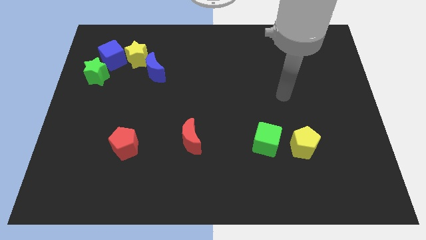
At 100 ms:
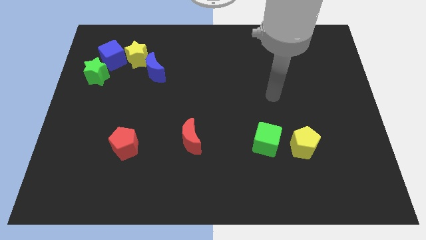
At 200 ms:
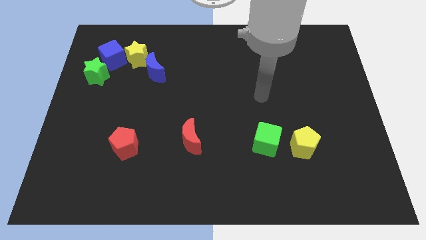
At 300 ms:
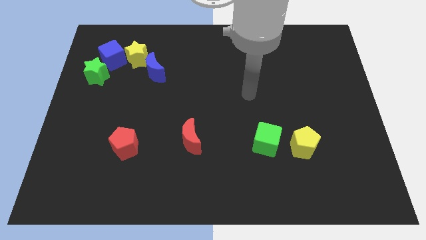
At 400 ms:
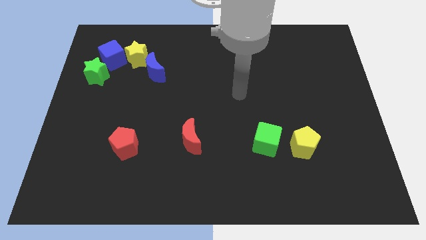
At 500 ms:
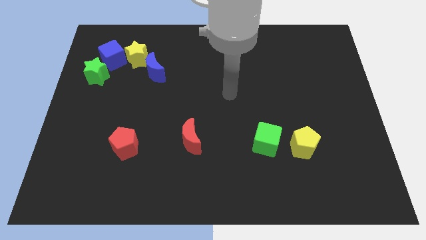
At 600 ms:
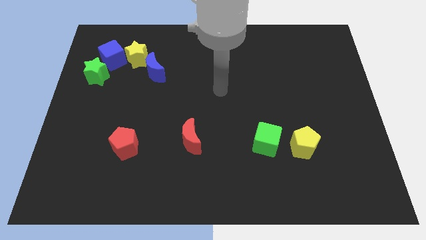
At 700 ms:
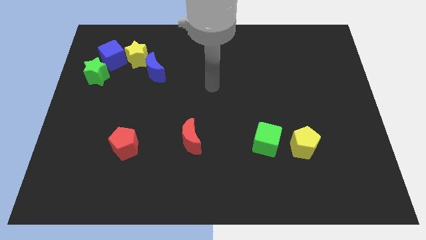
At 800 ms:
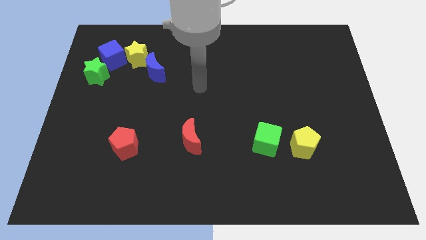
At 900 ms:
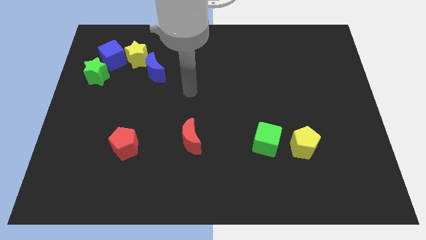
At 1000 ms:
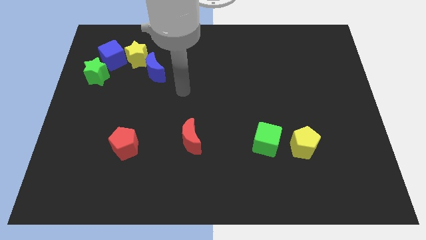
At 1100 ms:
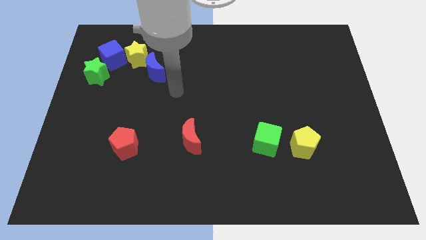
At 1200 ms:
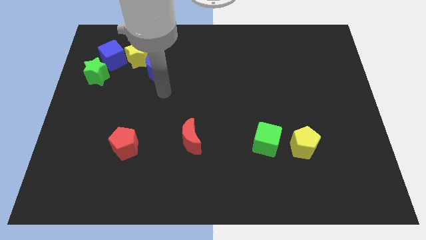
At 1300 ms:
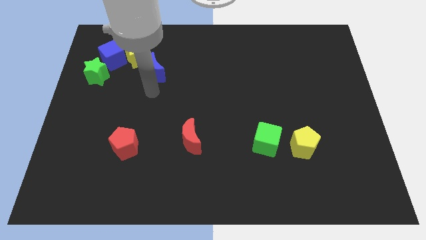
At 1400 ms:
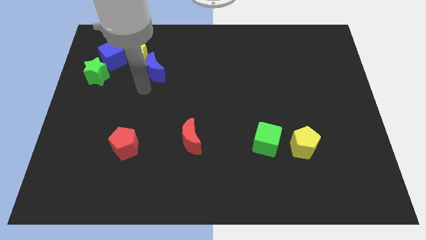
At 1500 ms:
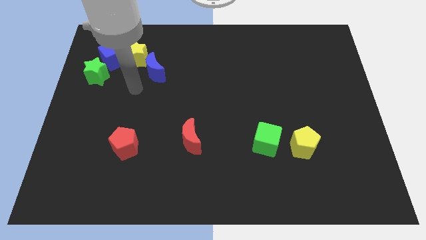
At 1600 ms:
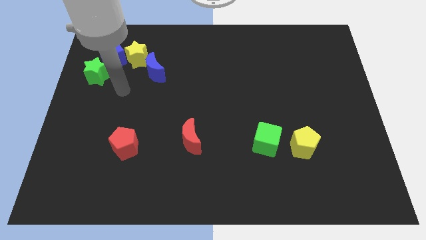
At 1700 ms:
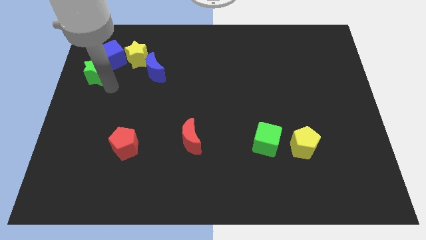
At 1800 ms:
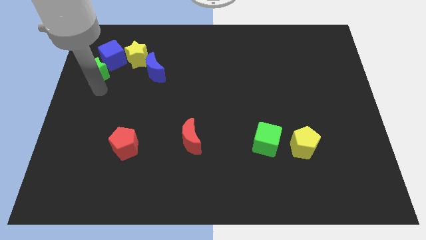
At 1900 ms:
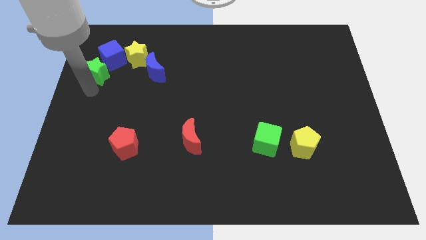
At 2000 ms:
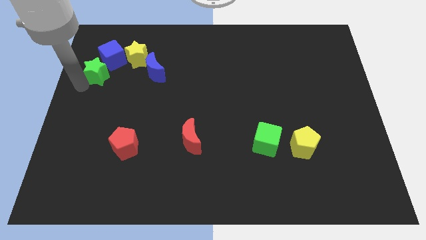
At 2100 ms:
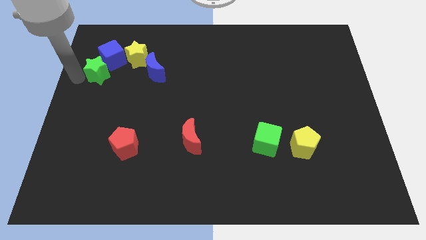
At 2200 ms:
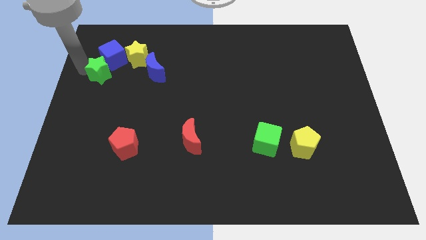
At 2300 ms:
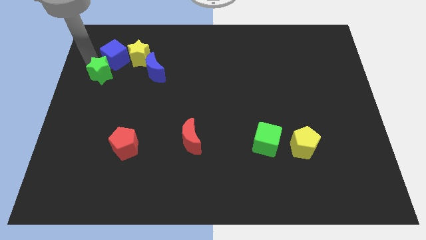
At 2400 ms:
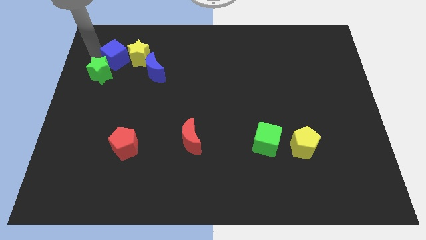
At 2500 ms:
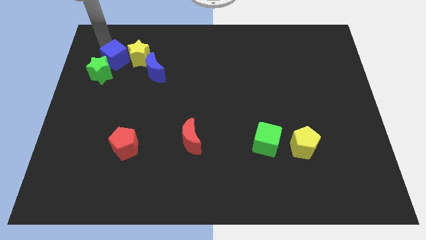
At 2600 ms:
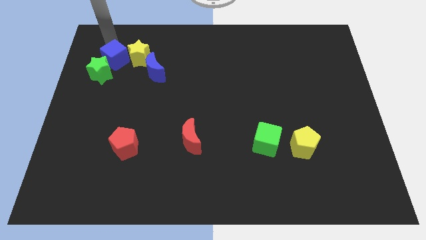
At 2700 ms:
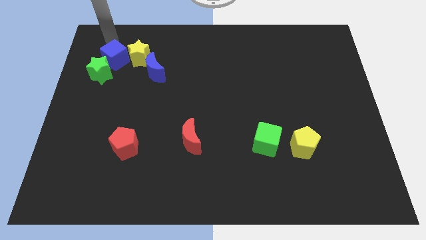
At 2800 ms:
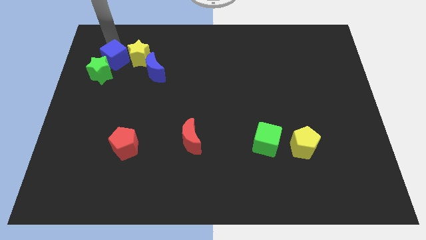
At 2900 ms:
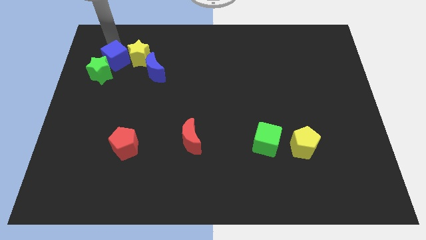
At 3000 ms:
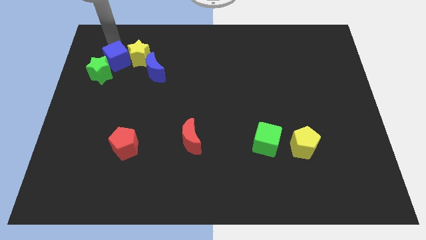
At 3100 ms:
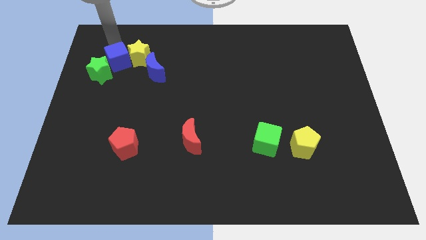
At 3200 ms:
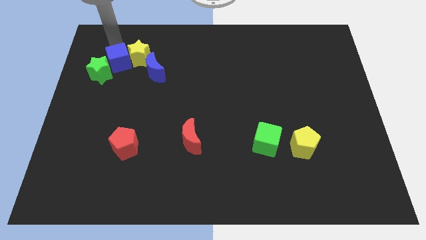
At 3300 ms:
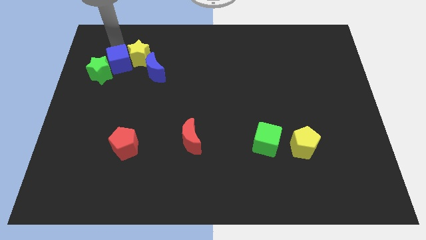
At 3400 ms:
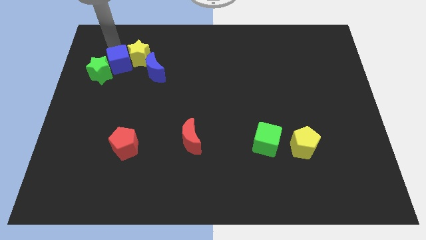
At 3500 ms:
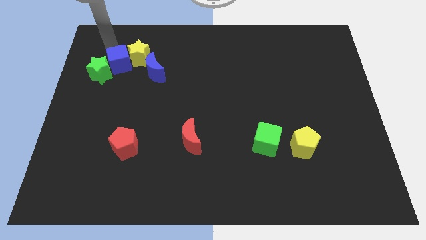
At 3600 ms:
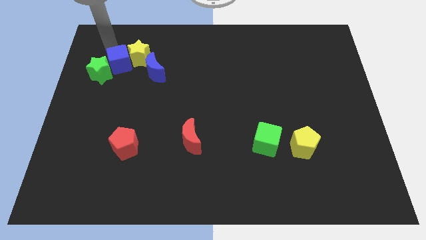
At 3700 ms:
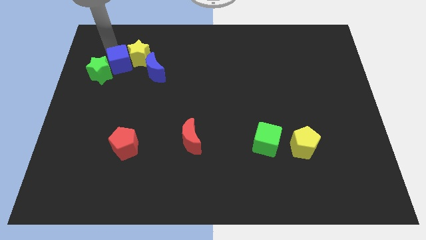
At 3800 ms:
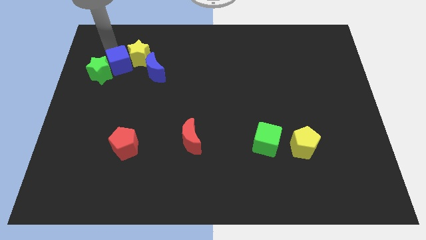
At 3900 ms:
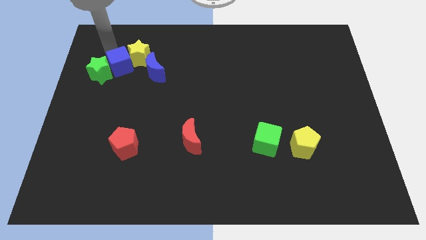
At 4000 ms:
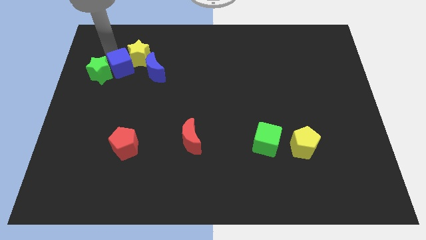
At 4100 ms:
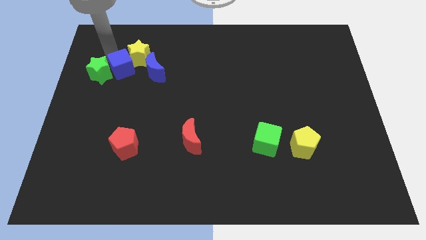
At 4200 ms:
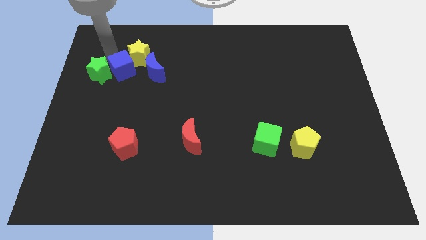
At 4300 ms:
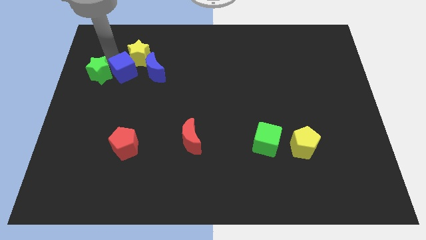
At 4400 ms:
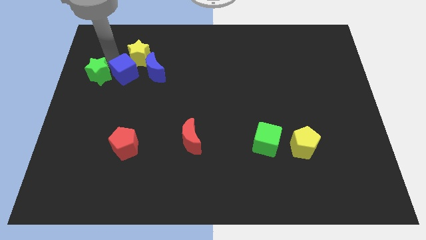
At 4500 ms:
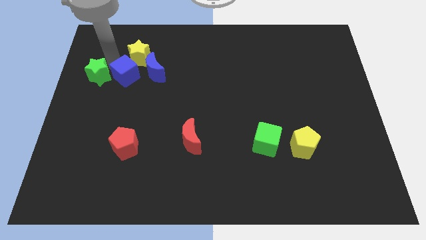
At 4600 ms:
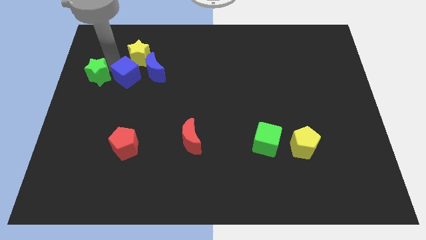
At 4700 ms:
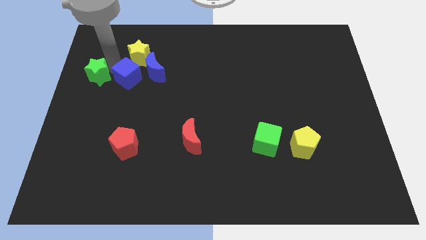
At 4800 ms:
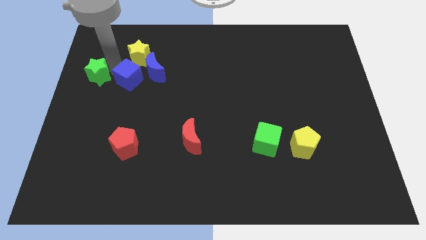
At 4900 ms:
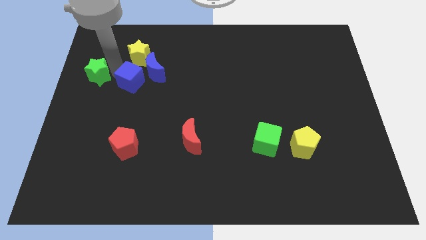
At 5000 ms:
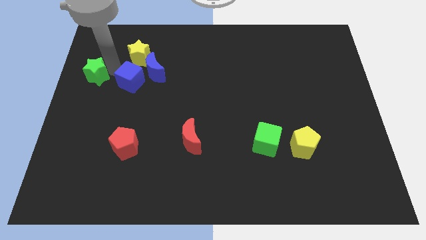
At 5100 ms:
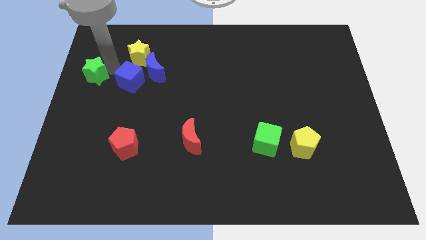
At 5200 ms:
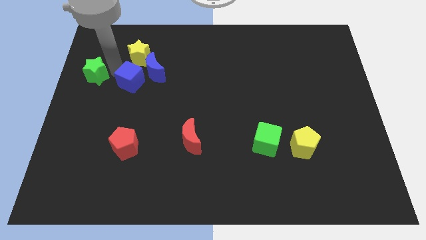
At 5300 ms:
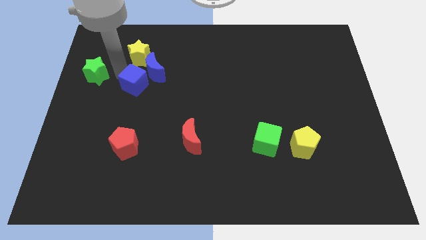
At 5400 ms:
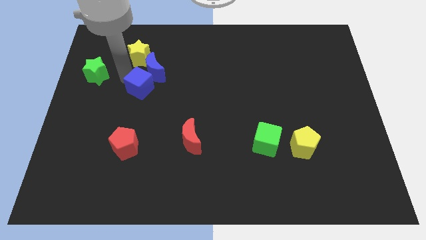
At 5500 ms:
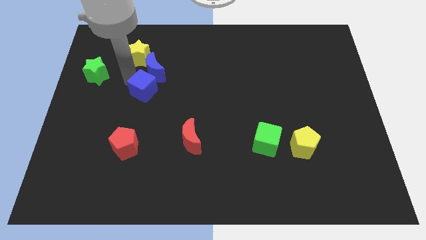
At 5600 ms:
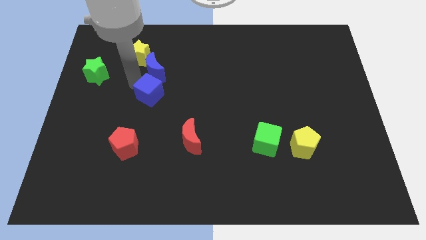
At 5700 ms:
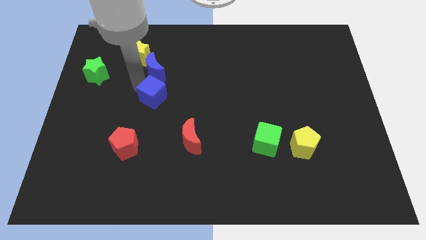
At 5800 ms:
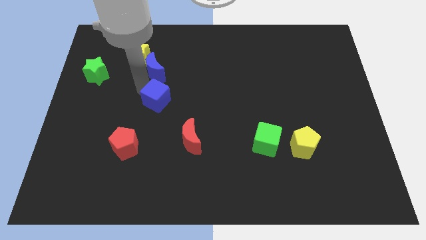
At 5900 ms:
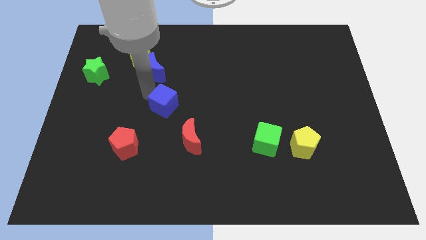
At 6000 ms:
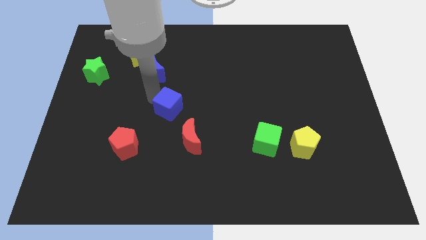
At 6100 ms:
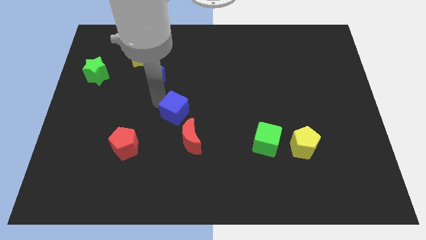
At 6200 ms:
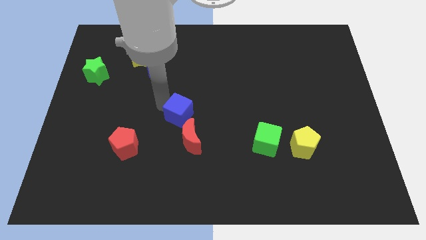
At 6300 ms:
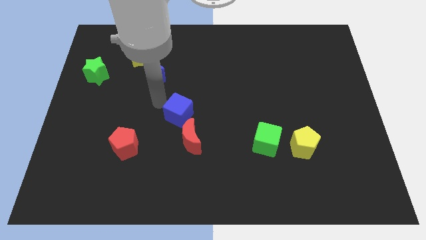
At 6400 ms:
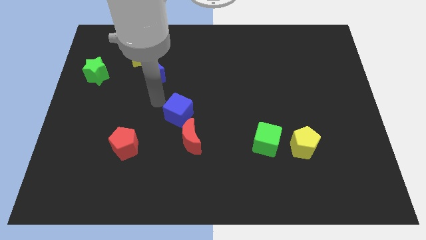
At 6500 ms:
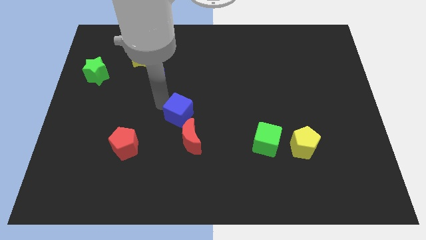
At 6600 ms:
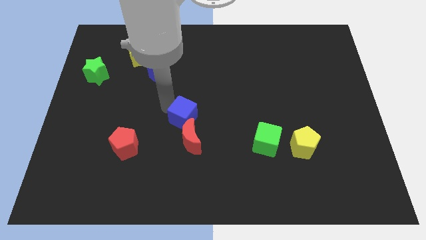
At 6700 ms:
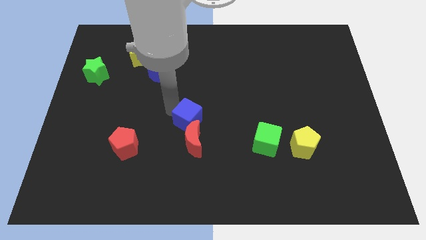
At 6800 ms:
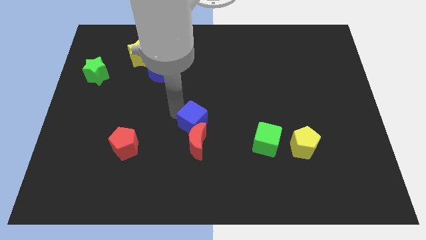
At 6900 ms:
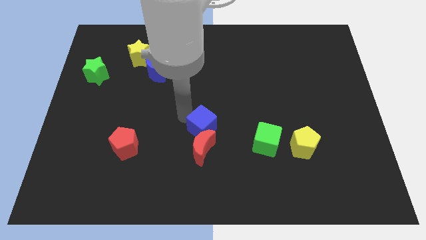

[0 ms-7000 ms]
move the blue cube to the left side of the green cube

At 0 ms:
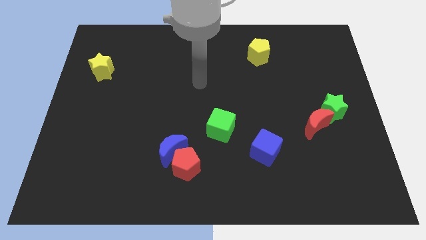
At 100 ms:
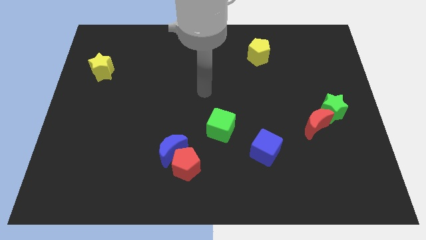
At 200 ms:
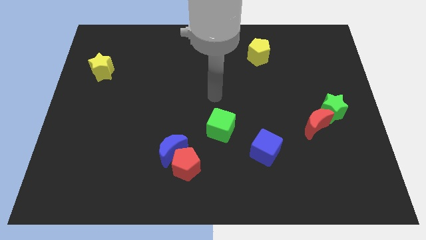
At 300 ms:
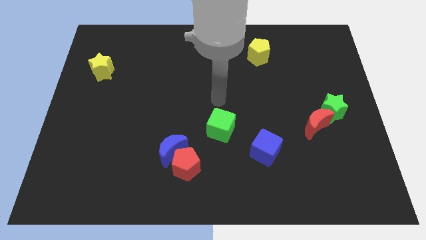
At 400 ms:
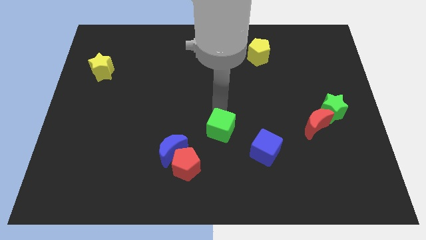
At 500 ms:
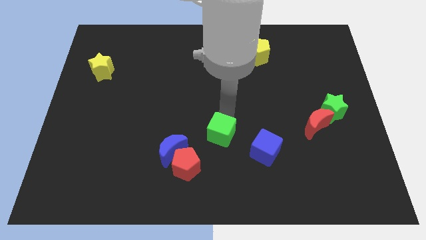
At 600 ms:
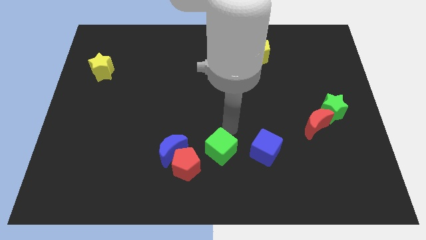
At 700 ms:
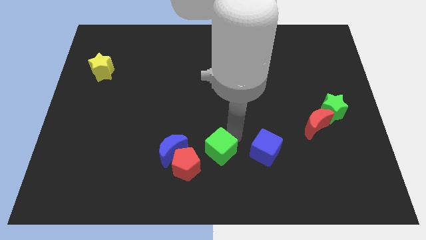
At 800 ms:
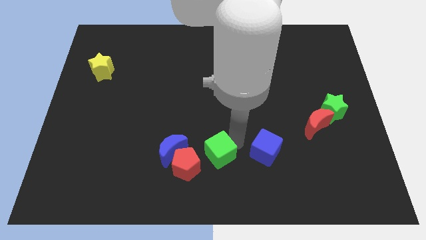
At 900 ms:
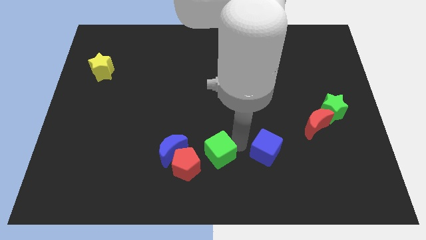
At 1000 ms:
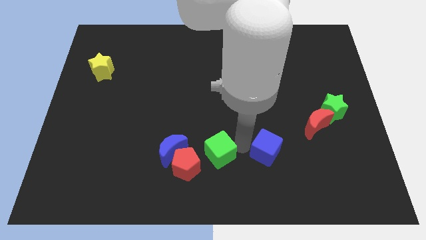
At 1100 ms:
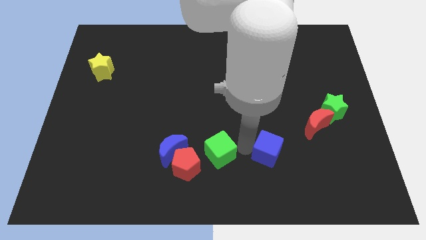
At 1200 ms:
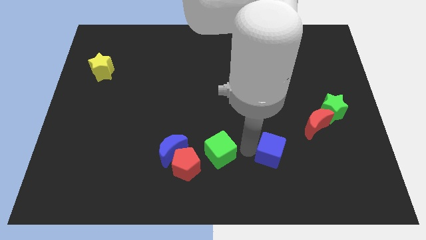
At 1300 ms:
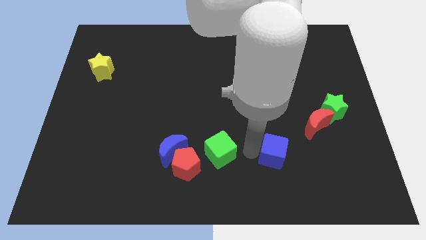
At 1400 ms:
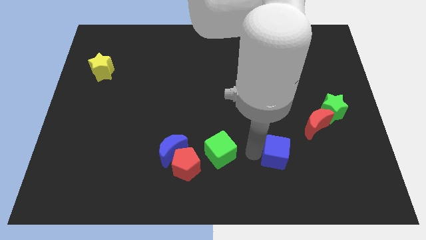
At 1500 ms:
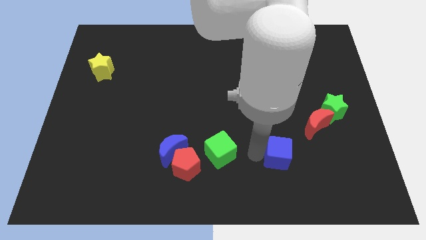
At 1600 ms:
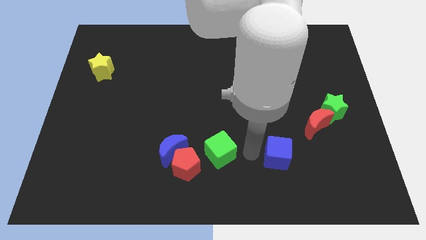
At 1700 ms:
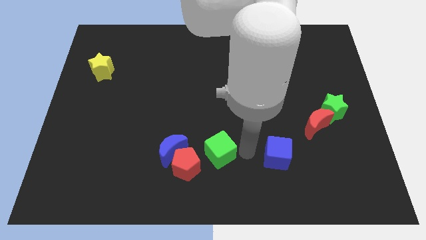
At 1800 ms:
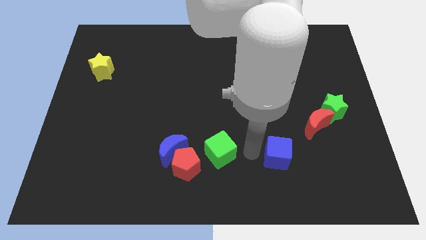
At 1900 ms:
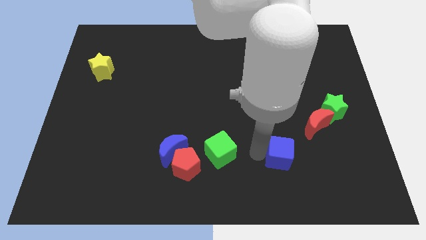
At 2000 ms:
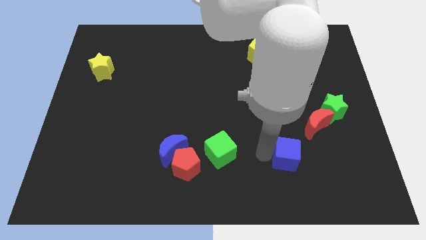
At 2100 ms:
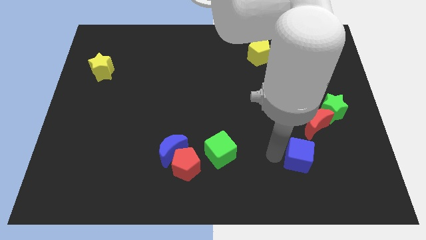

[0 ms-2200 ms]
push the blue cube below the red moon
